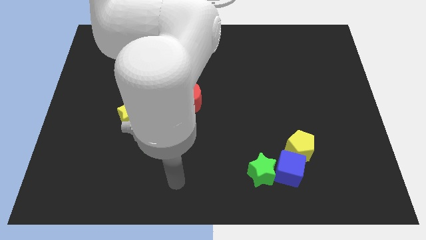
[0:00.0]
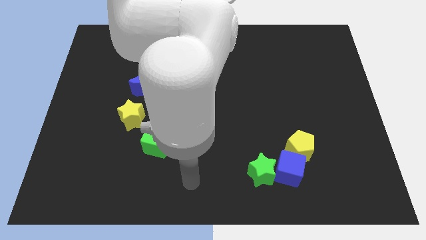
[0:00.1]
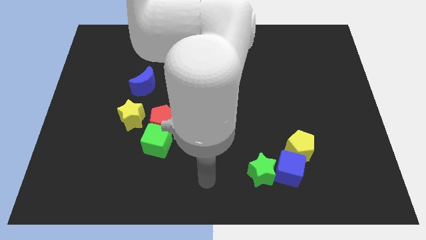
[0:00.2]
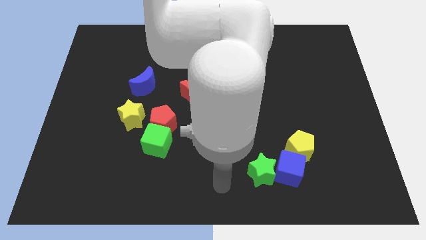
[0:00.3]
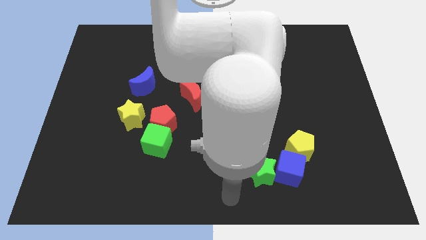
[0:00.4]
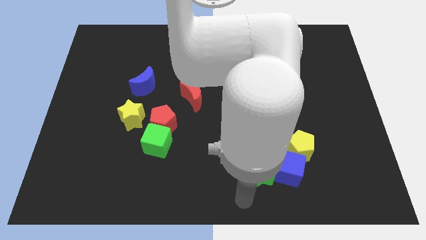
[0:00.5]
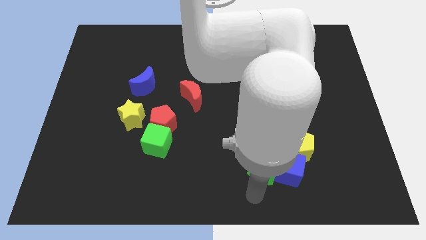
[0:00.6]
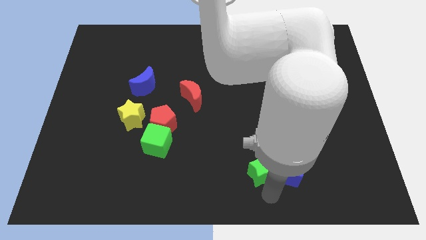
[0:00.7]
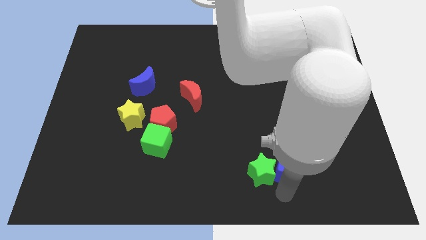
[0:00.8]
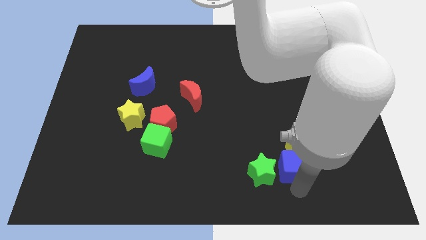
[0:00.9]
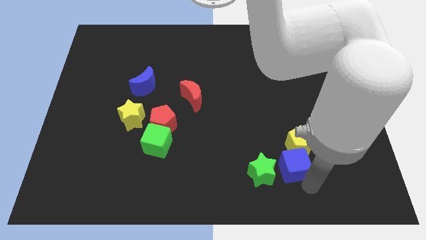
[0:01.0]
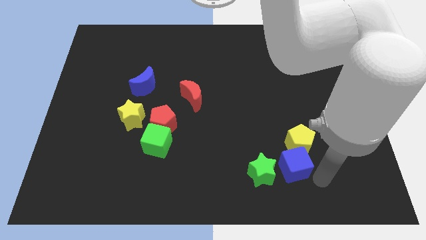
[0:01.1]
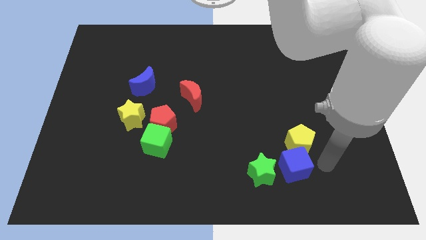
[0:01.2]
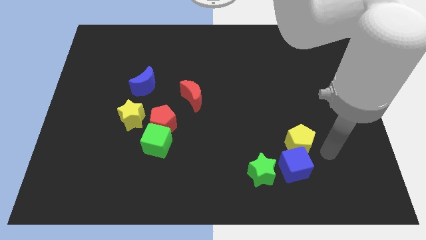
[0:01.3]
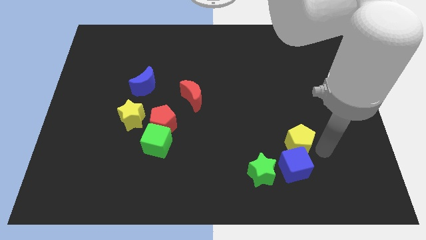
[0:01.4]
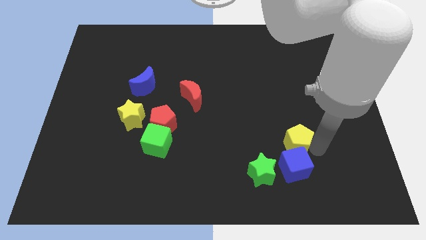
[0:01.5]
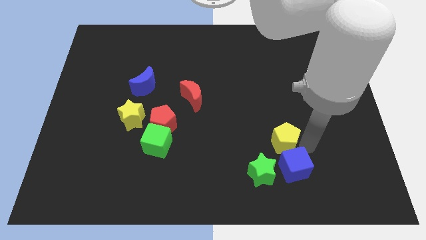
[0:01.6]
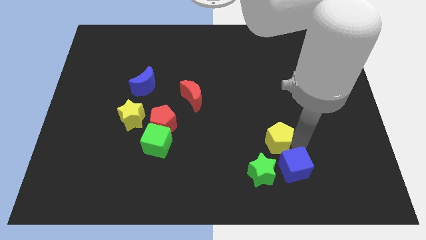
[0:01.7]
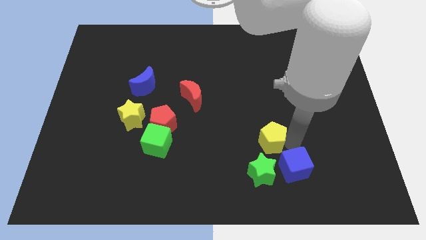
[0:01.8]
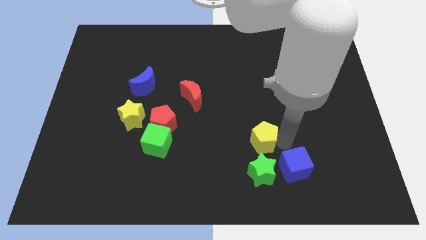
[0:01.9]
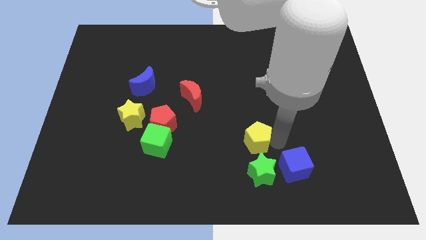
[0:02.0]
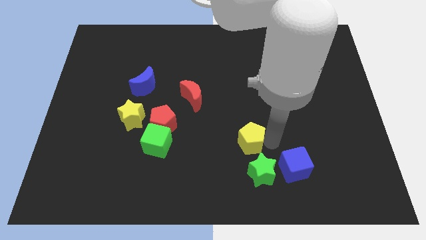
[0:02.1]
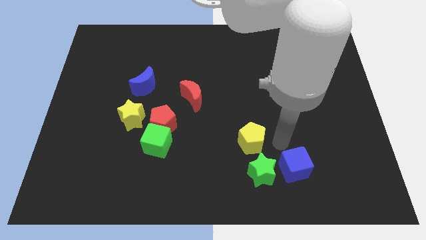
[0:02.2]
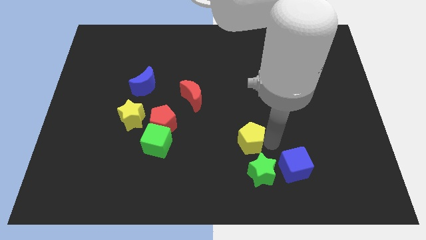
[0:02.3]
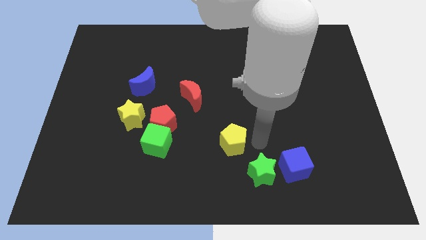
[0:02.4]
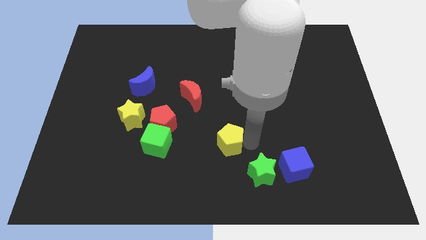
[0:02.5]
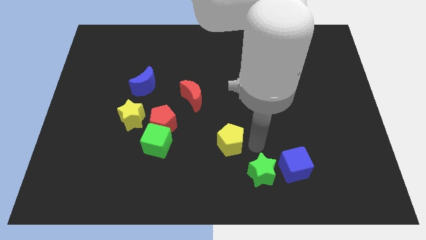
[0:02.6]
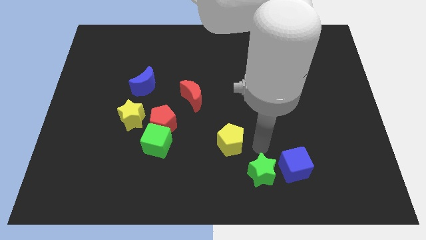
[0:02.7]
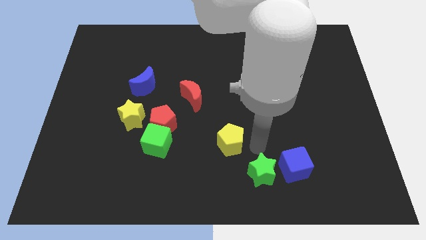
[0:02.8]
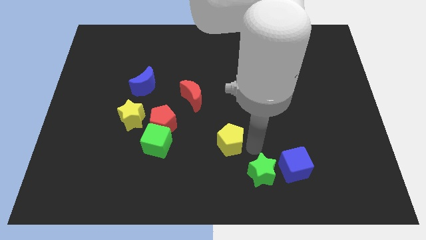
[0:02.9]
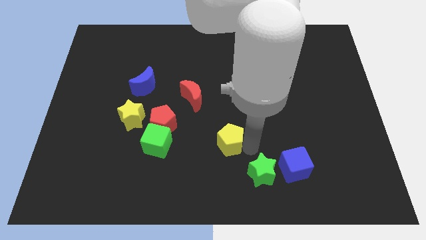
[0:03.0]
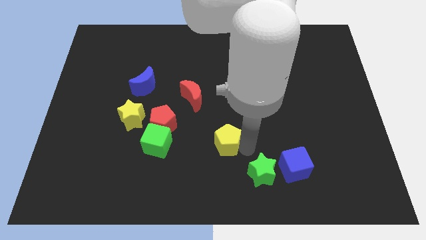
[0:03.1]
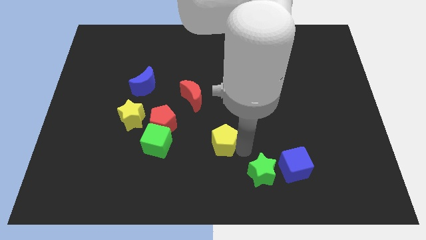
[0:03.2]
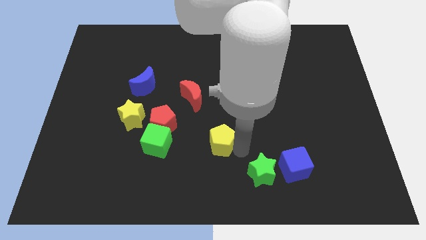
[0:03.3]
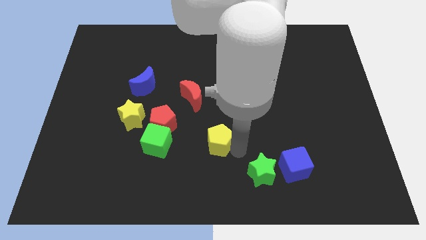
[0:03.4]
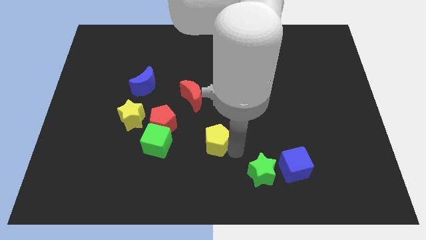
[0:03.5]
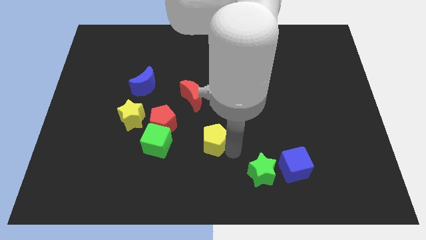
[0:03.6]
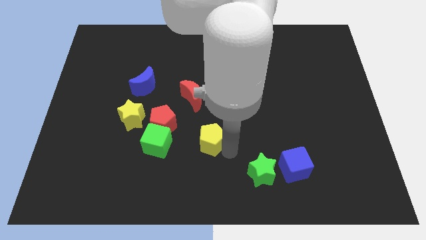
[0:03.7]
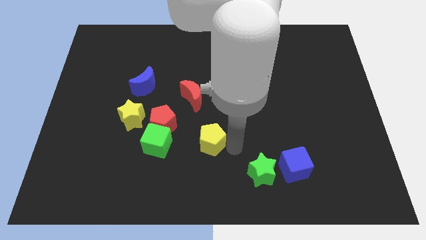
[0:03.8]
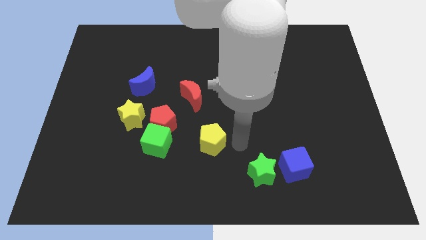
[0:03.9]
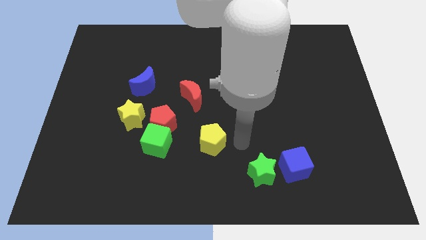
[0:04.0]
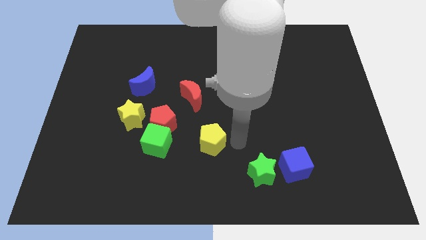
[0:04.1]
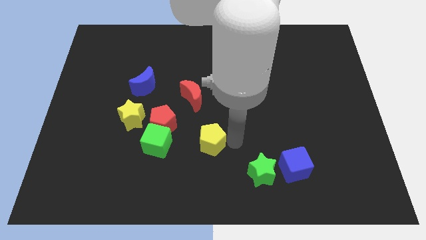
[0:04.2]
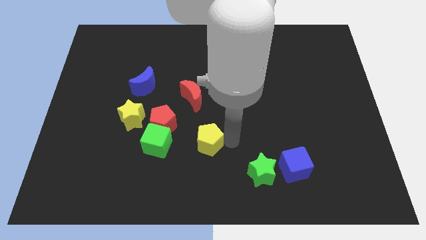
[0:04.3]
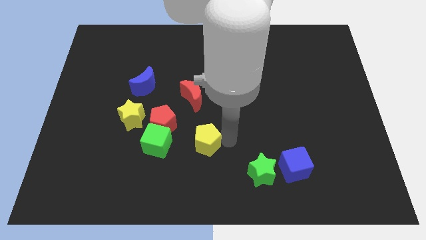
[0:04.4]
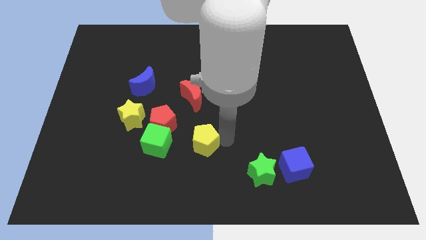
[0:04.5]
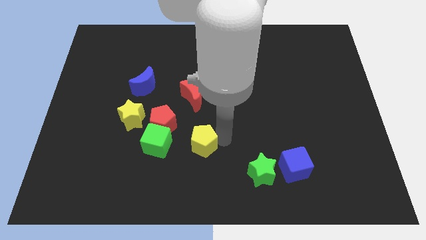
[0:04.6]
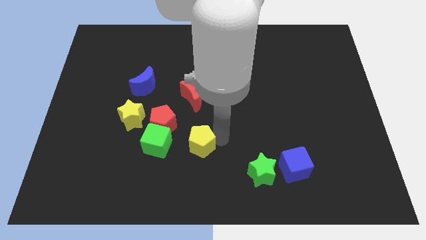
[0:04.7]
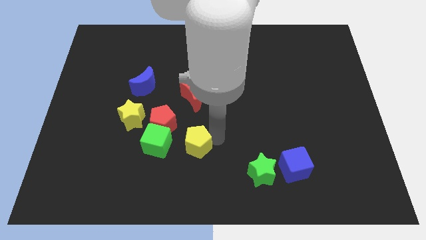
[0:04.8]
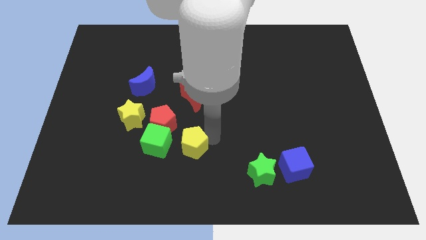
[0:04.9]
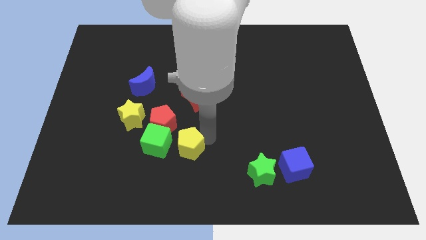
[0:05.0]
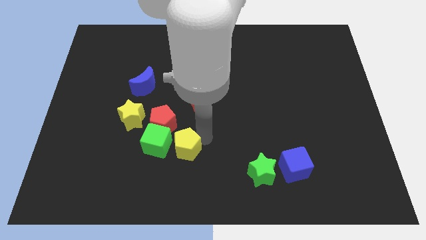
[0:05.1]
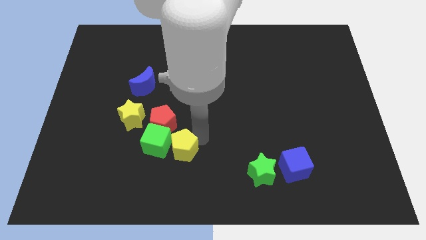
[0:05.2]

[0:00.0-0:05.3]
put the yellow pentagon close to the green cube

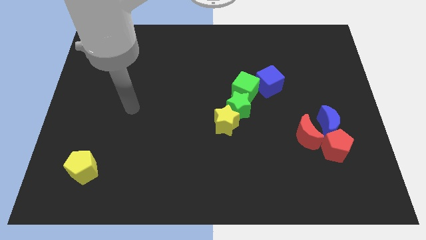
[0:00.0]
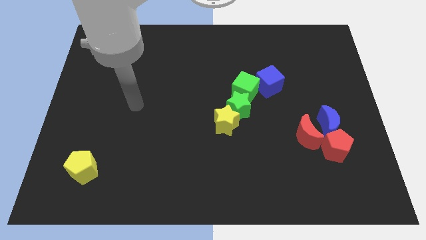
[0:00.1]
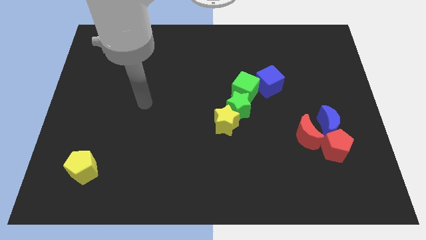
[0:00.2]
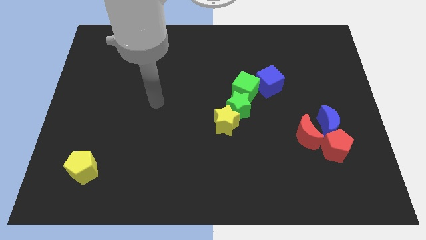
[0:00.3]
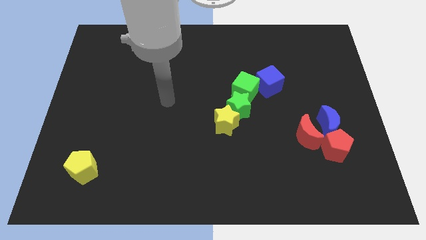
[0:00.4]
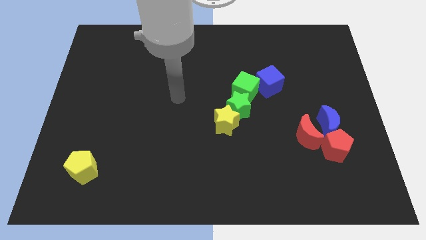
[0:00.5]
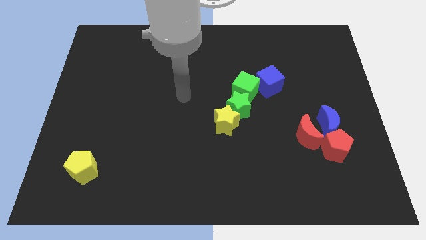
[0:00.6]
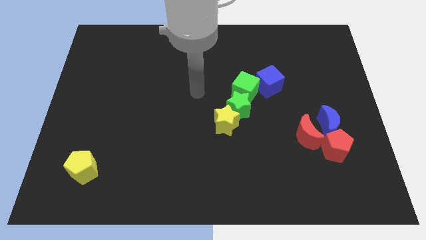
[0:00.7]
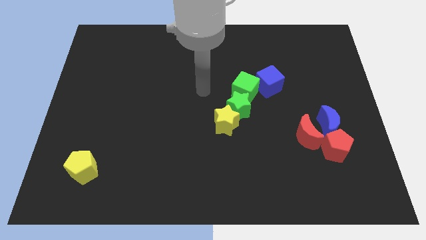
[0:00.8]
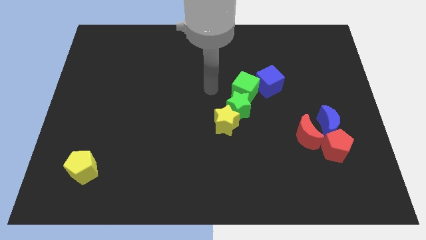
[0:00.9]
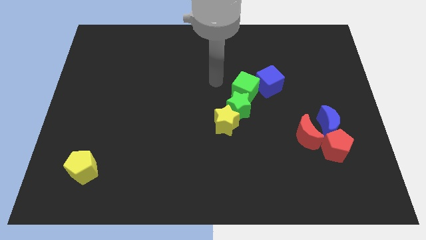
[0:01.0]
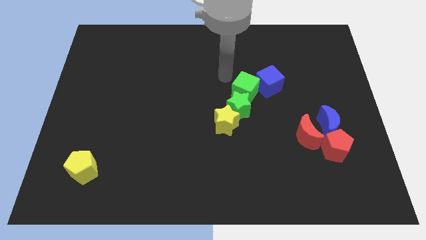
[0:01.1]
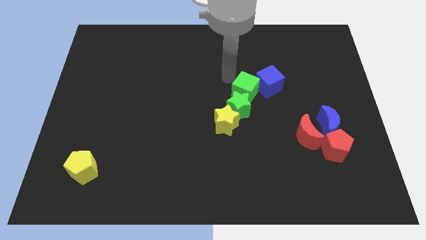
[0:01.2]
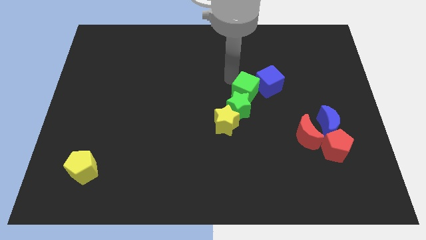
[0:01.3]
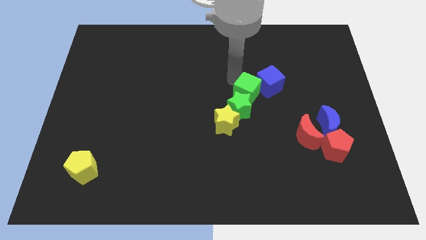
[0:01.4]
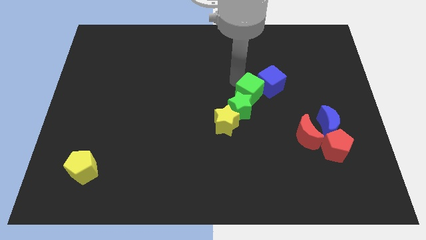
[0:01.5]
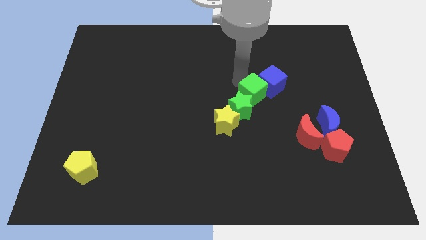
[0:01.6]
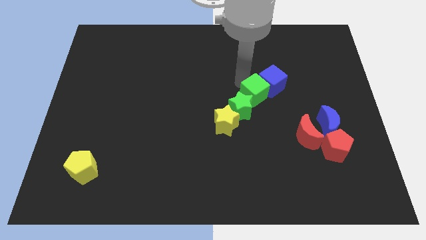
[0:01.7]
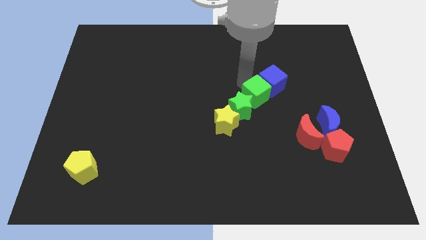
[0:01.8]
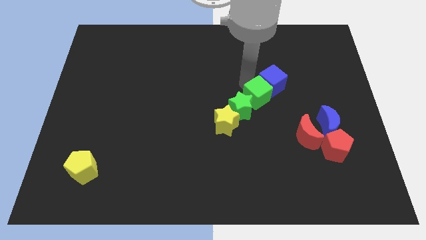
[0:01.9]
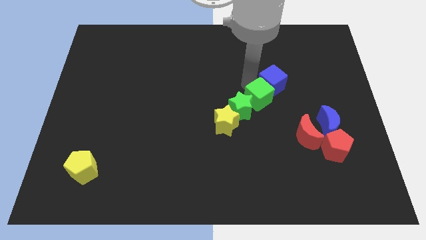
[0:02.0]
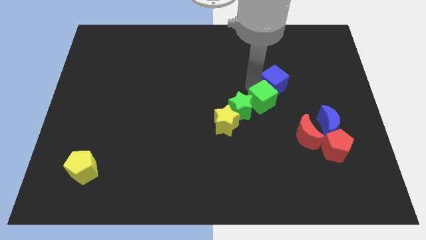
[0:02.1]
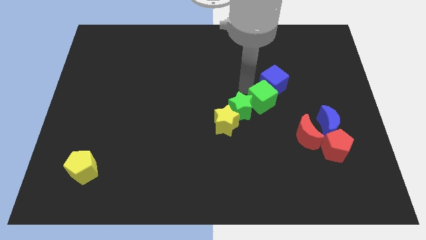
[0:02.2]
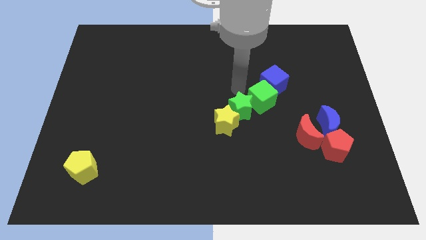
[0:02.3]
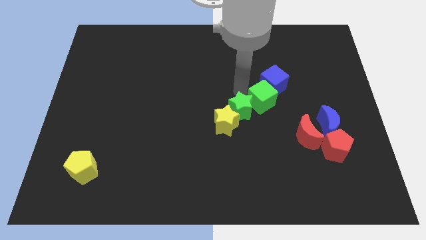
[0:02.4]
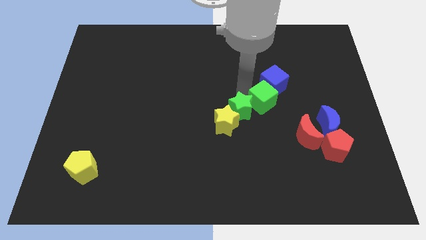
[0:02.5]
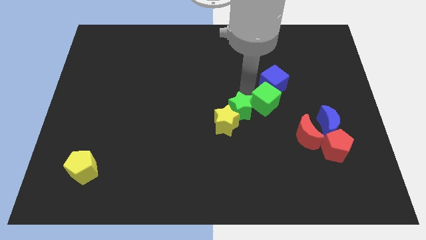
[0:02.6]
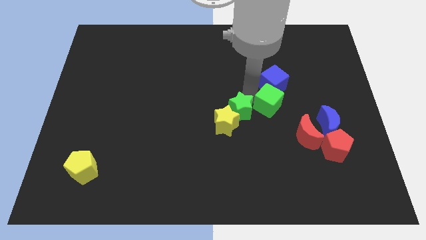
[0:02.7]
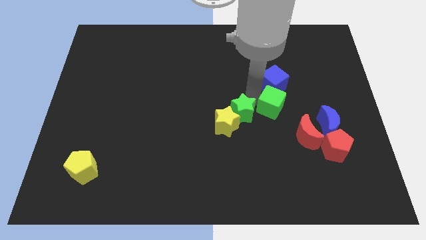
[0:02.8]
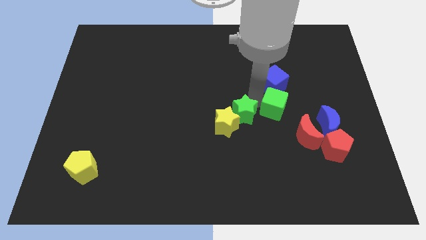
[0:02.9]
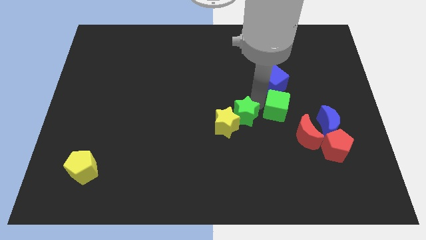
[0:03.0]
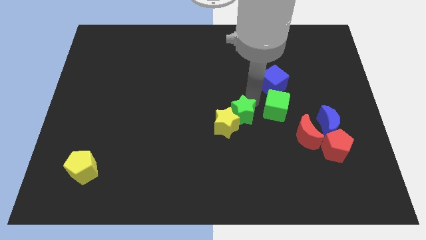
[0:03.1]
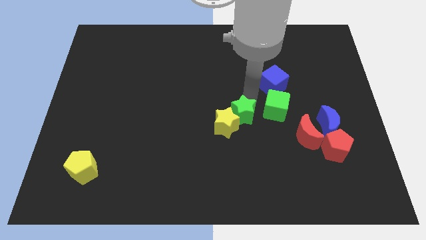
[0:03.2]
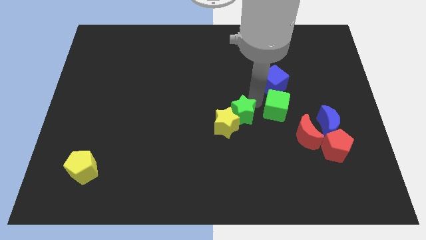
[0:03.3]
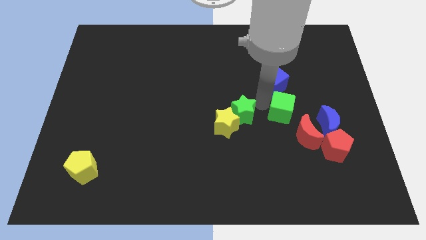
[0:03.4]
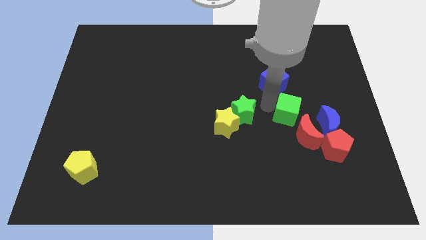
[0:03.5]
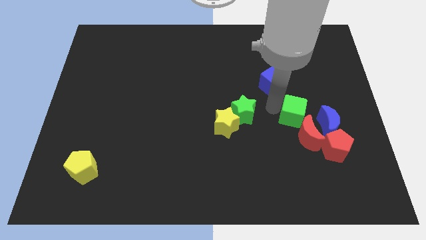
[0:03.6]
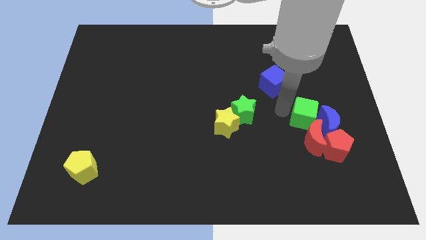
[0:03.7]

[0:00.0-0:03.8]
move the green cube to the blue moon
